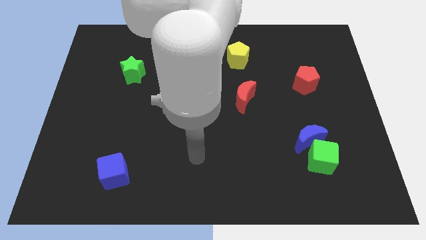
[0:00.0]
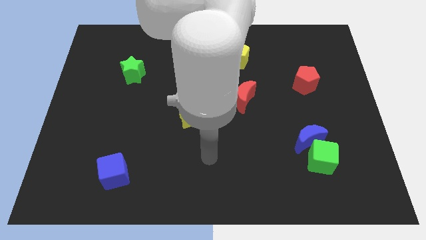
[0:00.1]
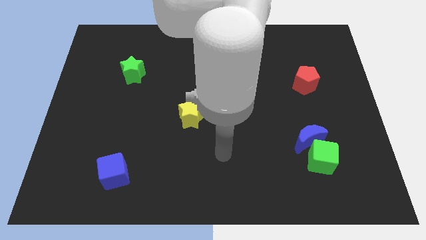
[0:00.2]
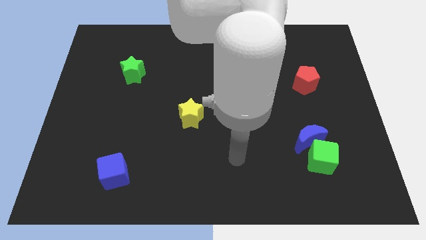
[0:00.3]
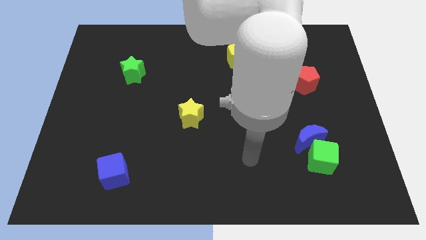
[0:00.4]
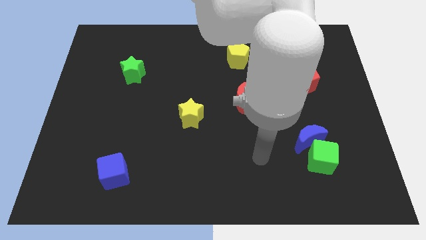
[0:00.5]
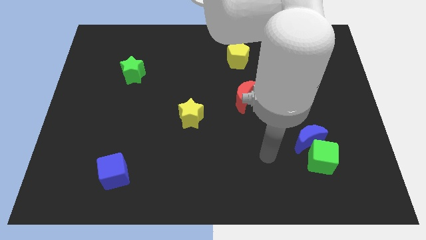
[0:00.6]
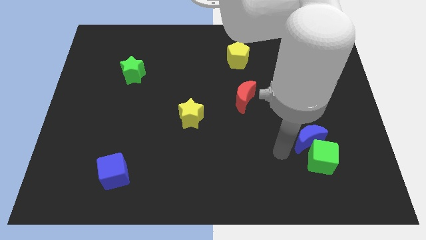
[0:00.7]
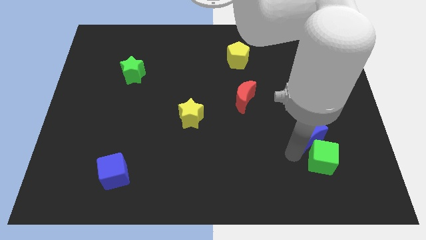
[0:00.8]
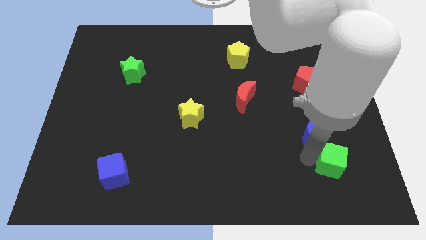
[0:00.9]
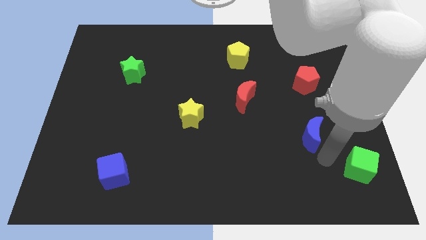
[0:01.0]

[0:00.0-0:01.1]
move the blue moon away from the green cube

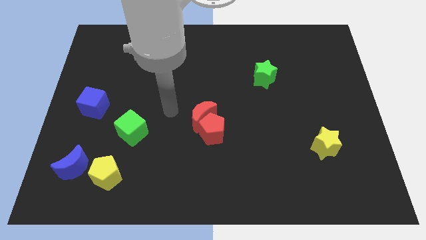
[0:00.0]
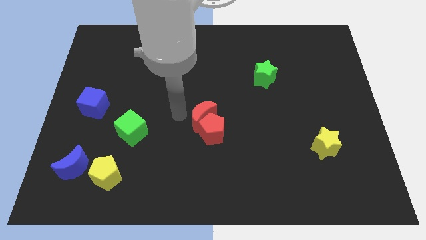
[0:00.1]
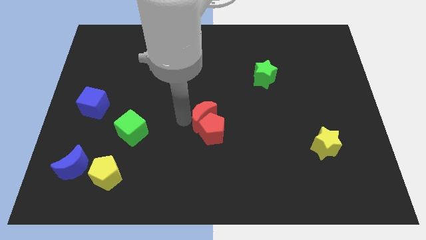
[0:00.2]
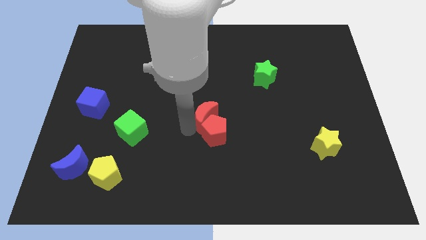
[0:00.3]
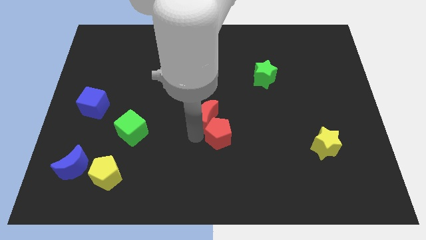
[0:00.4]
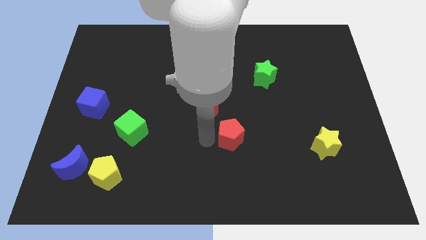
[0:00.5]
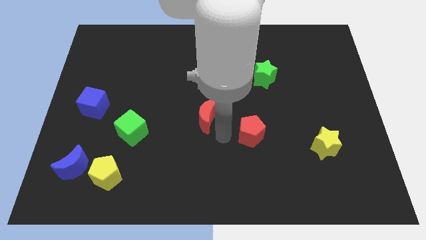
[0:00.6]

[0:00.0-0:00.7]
pull the red moon apart from the red pentagon

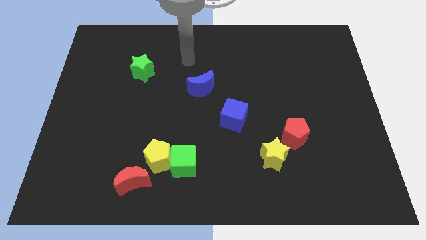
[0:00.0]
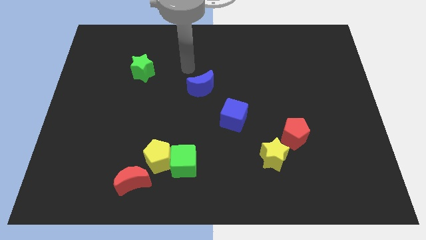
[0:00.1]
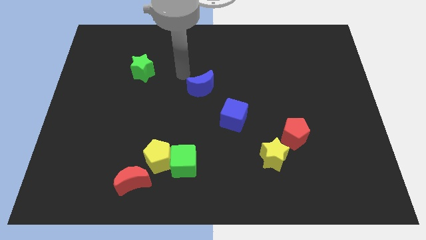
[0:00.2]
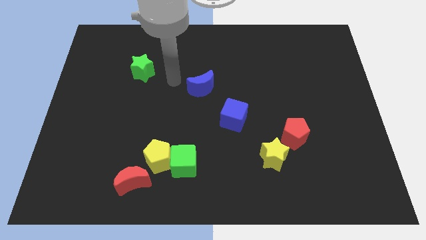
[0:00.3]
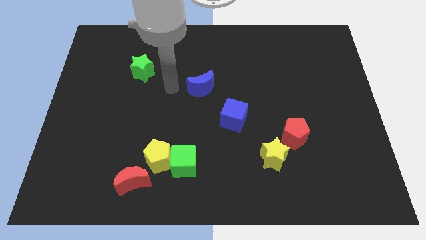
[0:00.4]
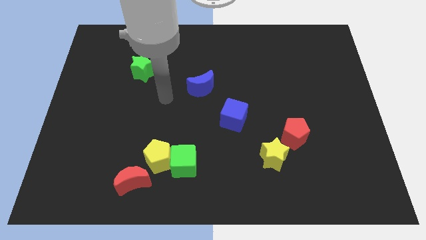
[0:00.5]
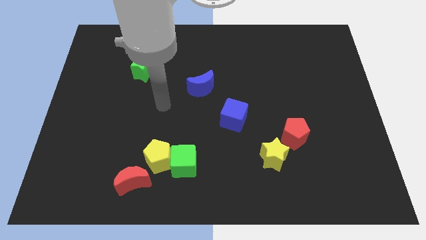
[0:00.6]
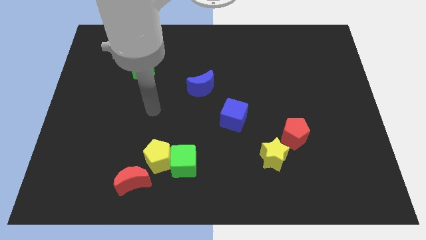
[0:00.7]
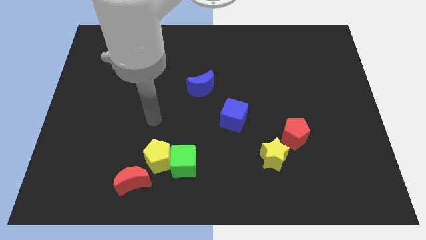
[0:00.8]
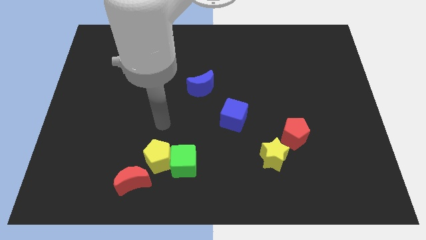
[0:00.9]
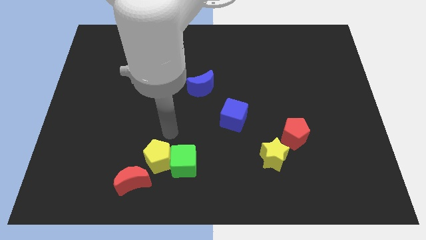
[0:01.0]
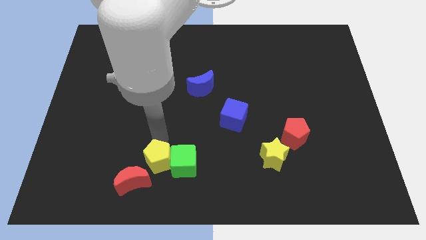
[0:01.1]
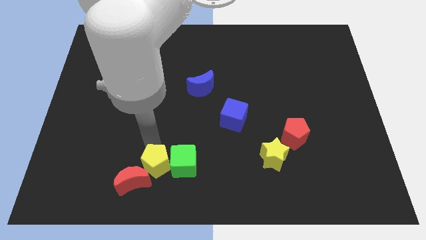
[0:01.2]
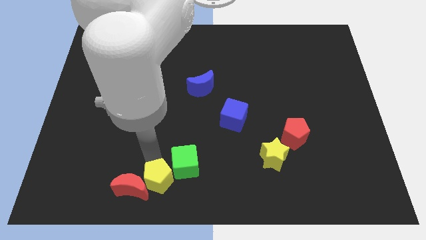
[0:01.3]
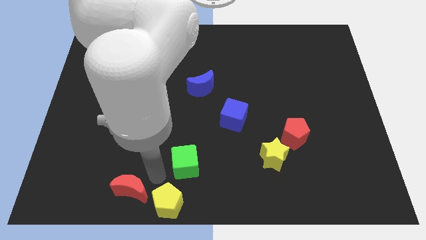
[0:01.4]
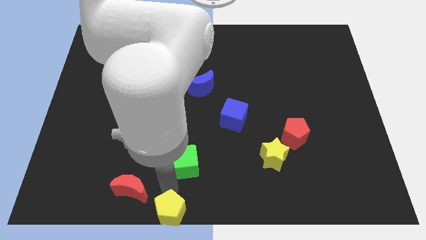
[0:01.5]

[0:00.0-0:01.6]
move the green cube away from the yellow pentagon

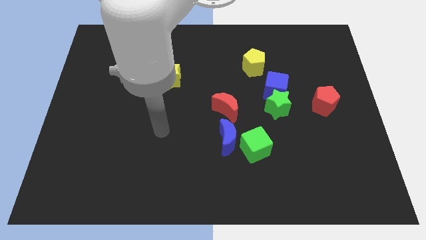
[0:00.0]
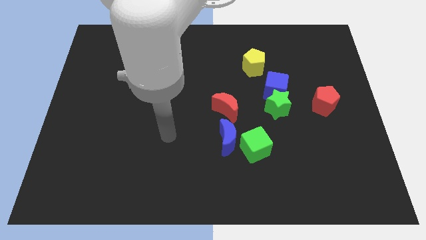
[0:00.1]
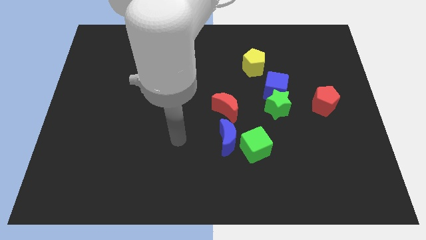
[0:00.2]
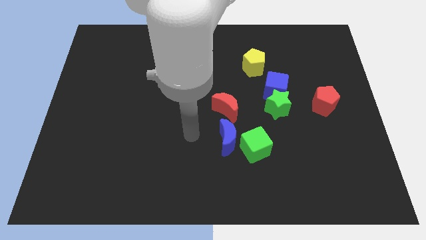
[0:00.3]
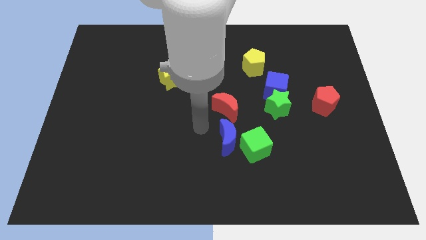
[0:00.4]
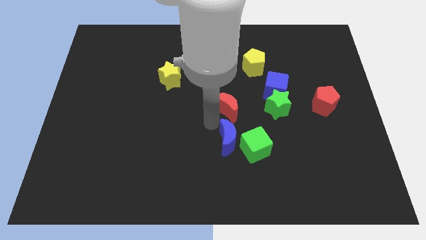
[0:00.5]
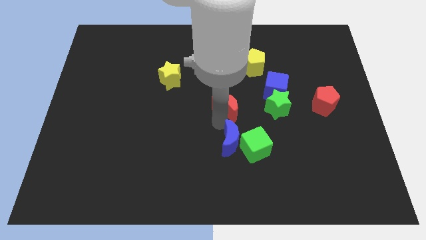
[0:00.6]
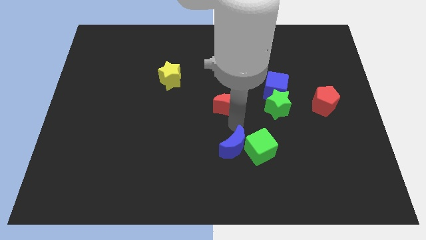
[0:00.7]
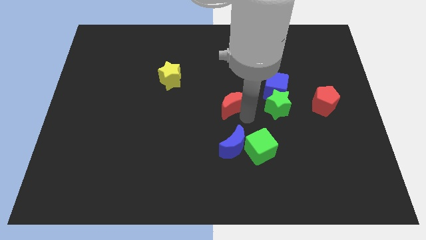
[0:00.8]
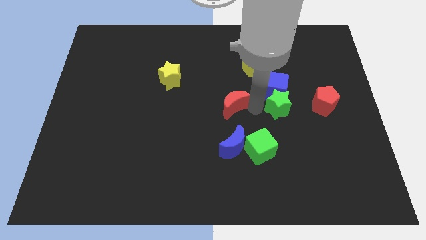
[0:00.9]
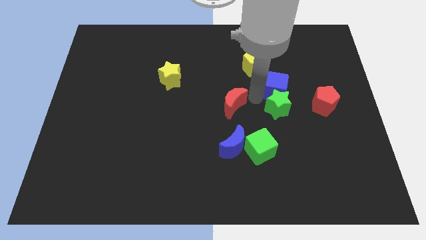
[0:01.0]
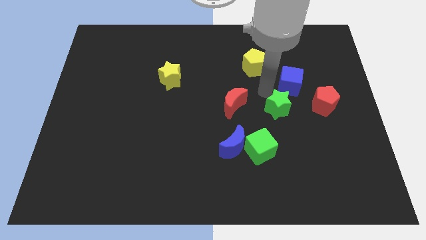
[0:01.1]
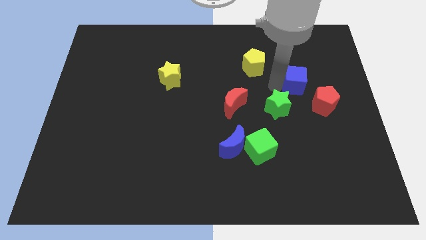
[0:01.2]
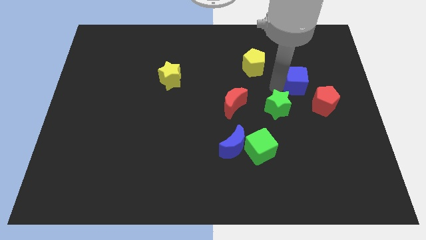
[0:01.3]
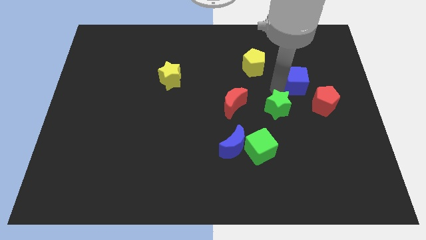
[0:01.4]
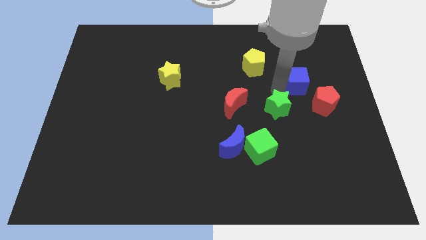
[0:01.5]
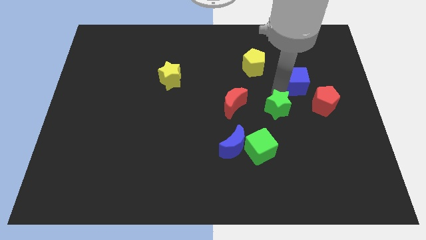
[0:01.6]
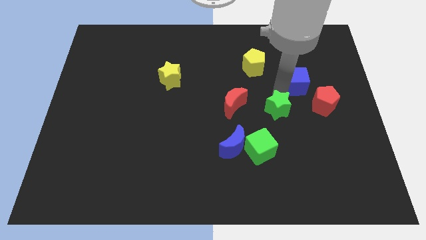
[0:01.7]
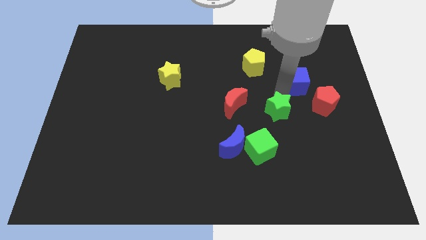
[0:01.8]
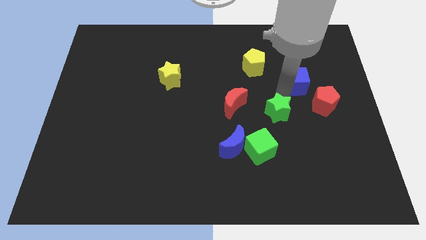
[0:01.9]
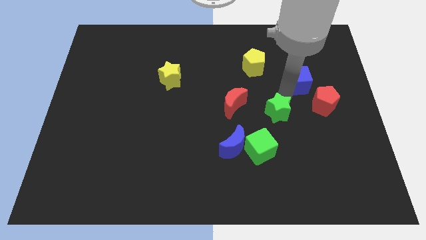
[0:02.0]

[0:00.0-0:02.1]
pull the green star apart from the blue cube

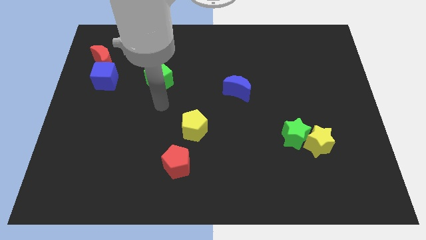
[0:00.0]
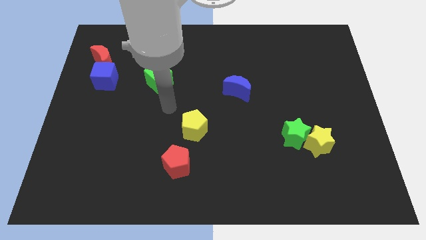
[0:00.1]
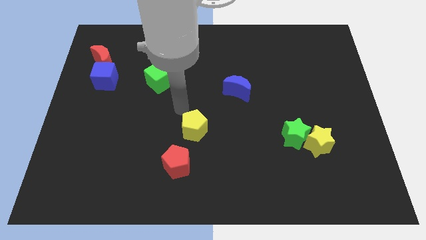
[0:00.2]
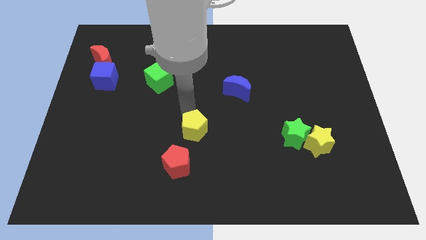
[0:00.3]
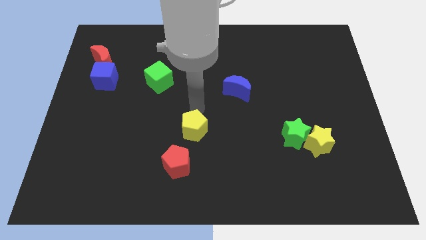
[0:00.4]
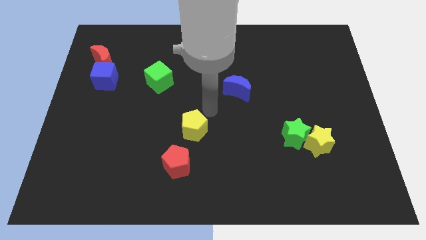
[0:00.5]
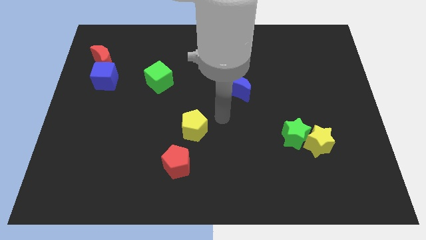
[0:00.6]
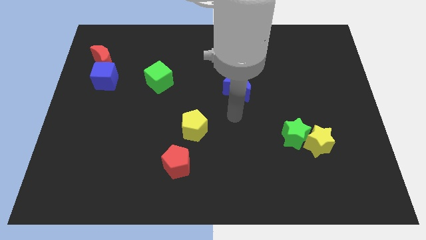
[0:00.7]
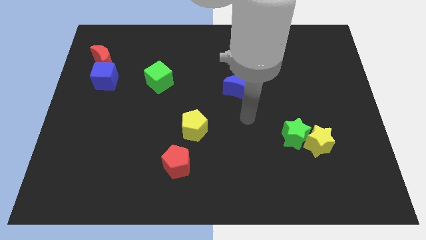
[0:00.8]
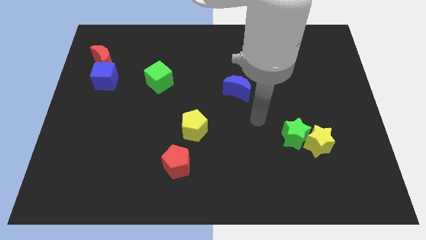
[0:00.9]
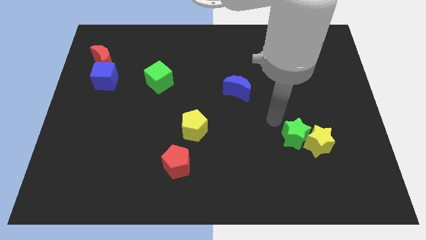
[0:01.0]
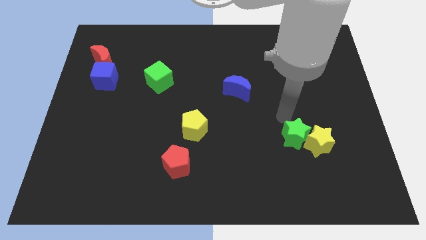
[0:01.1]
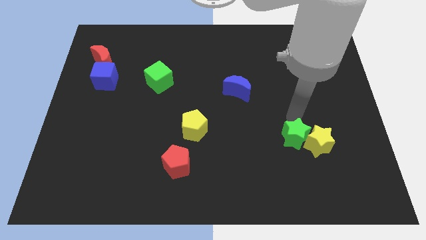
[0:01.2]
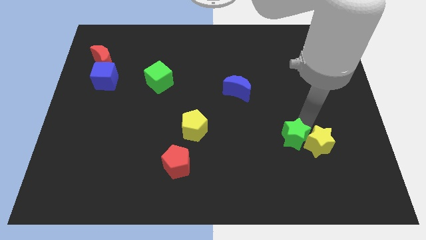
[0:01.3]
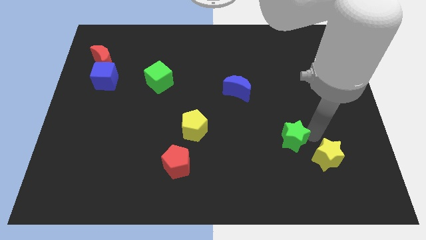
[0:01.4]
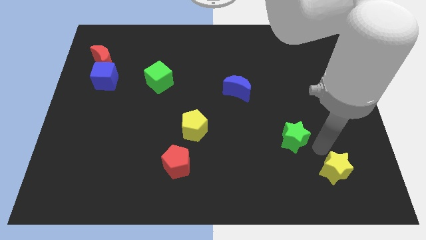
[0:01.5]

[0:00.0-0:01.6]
move the green star away from the yellow star

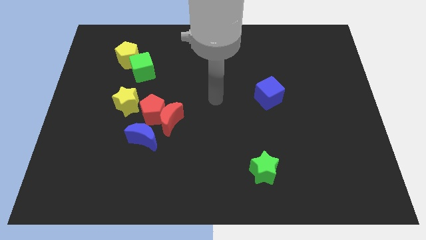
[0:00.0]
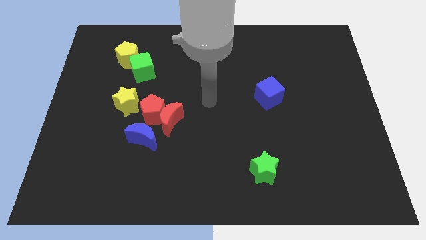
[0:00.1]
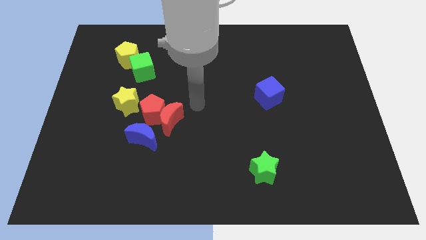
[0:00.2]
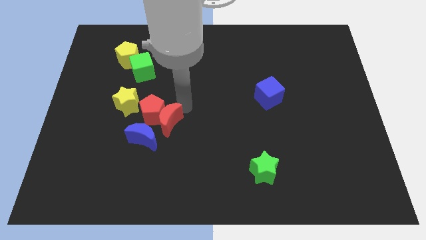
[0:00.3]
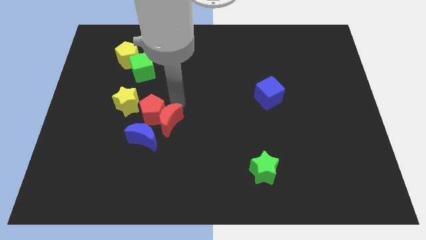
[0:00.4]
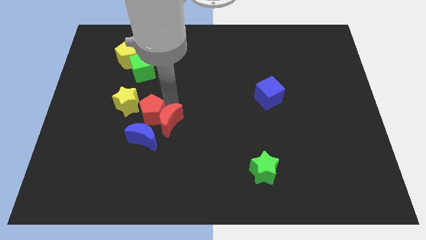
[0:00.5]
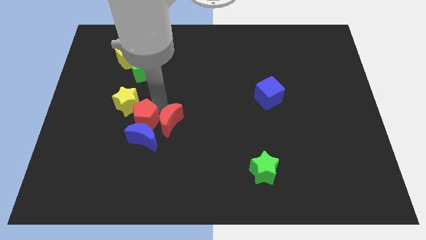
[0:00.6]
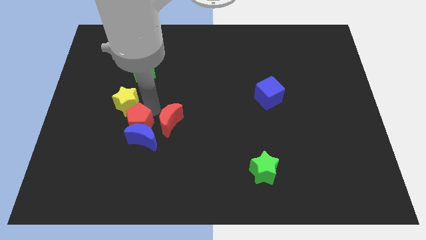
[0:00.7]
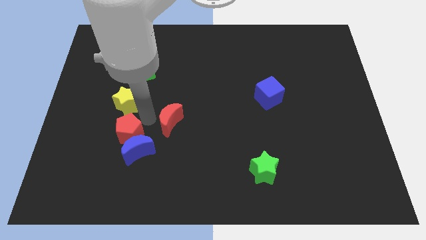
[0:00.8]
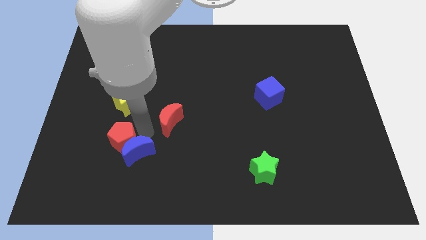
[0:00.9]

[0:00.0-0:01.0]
separate the red moon from the red pentagon and blue moon

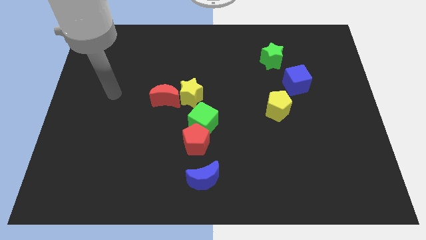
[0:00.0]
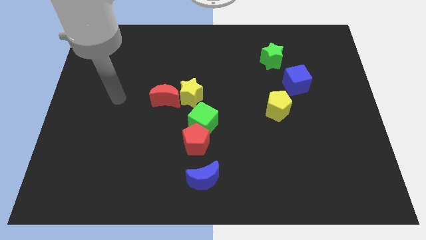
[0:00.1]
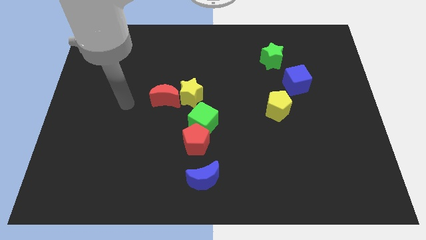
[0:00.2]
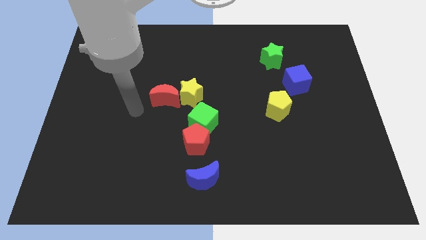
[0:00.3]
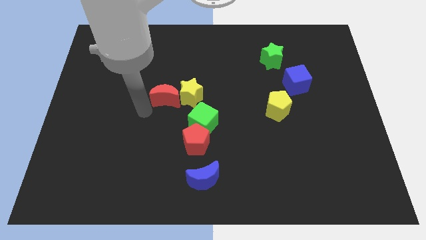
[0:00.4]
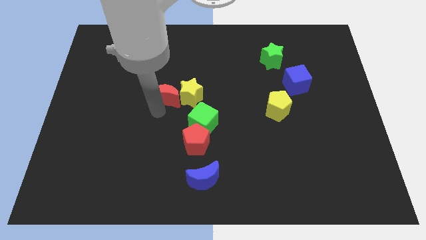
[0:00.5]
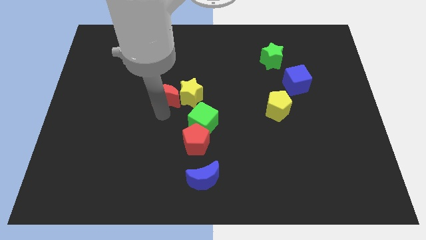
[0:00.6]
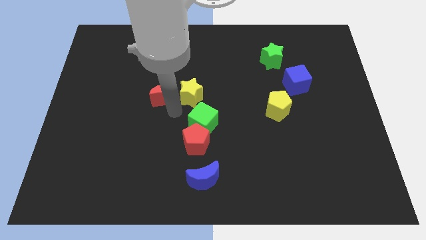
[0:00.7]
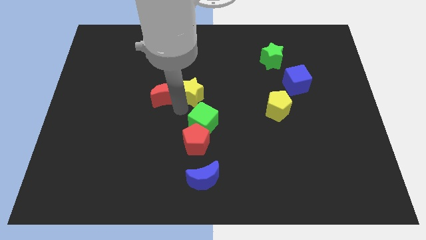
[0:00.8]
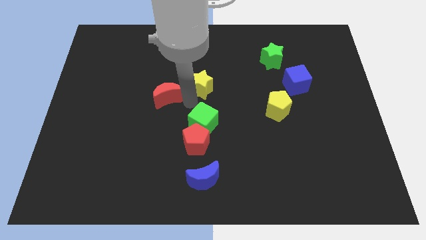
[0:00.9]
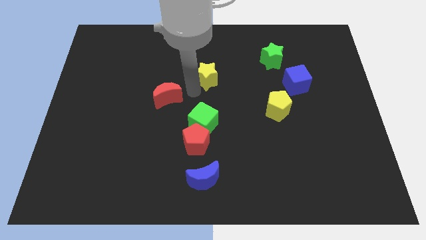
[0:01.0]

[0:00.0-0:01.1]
separate the red moon from the yellow star
